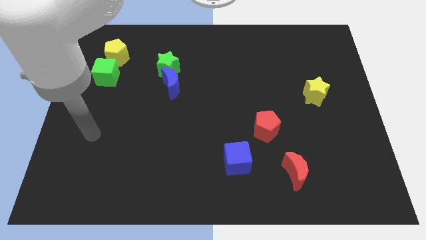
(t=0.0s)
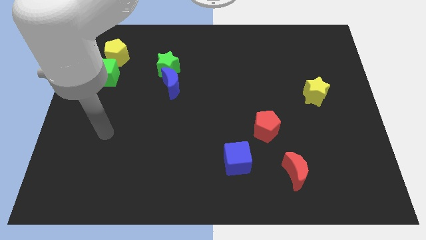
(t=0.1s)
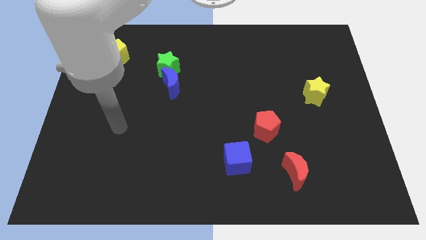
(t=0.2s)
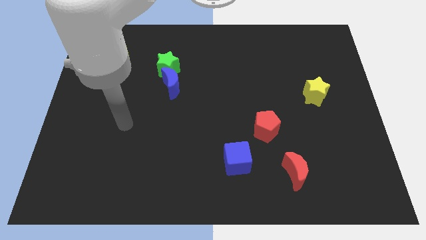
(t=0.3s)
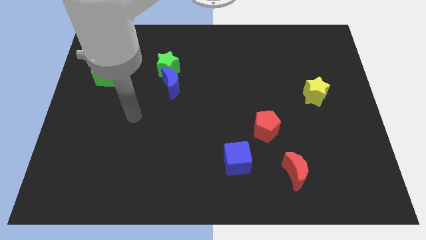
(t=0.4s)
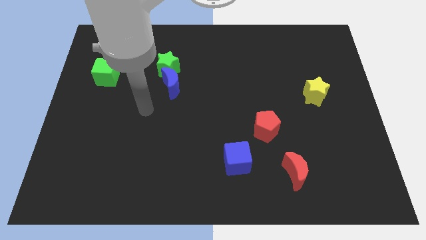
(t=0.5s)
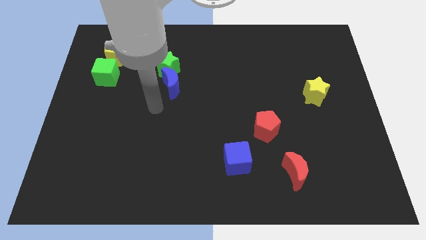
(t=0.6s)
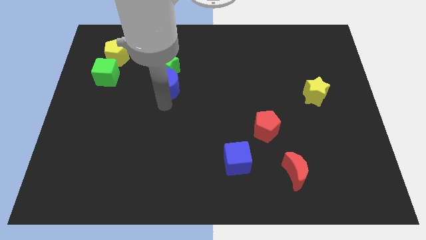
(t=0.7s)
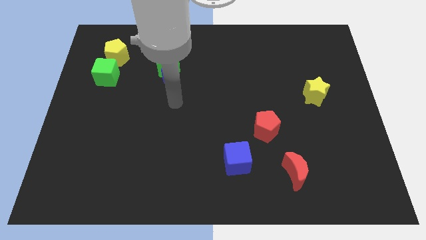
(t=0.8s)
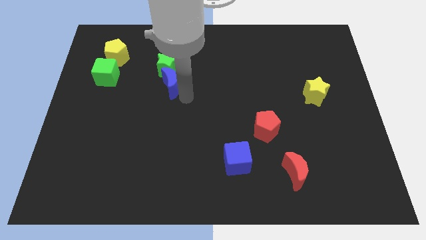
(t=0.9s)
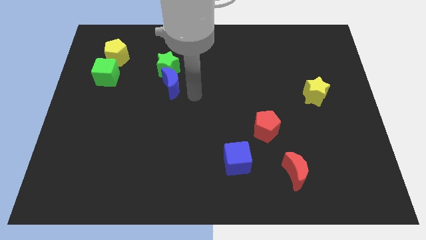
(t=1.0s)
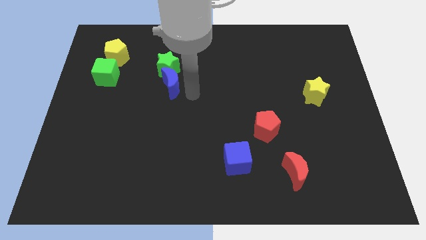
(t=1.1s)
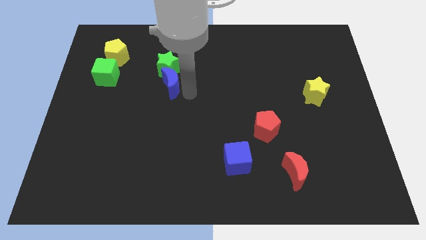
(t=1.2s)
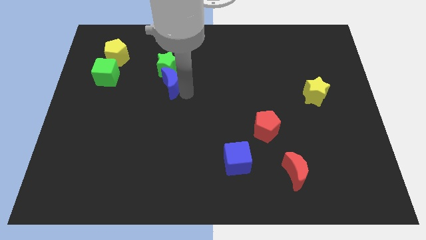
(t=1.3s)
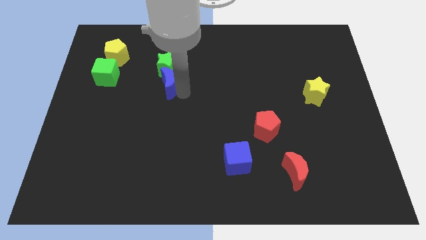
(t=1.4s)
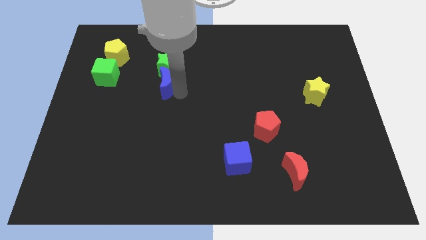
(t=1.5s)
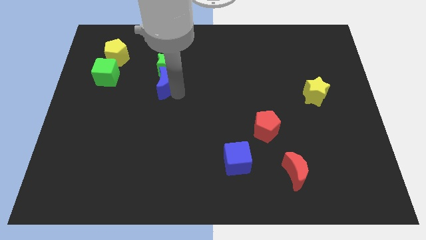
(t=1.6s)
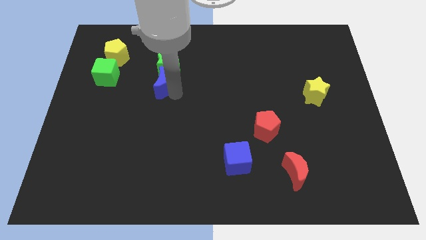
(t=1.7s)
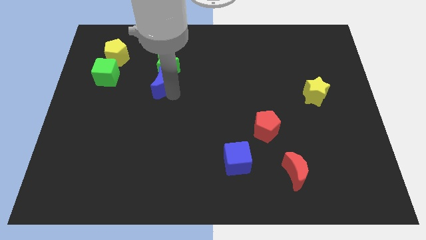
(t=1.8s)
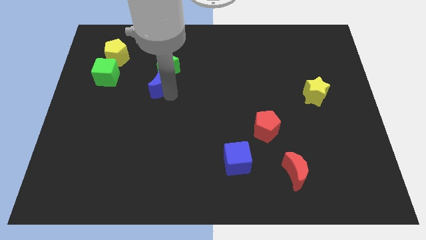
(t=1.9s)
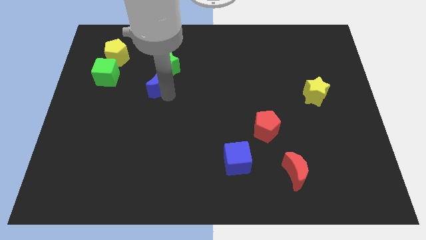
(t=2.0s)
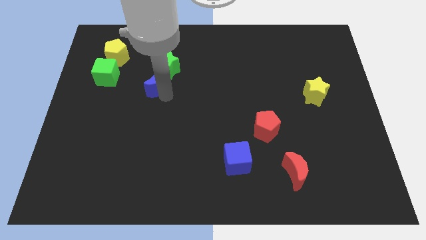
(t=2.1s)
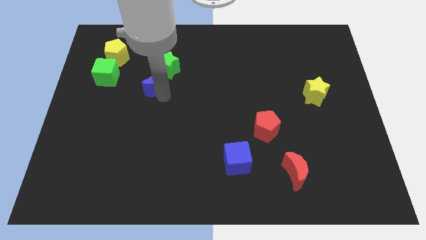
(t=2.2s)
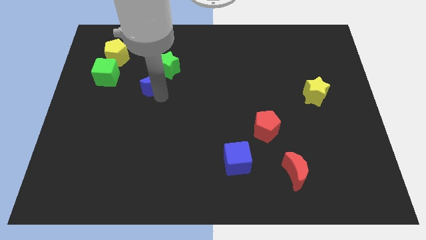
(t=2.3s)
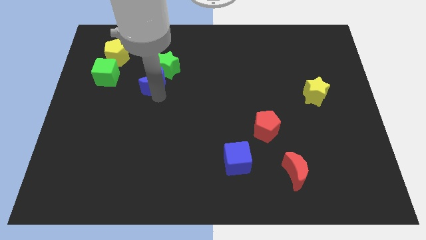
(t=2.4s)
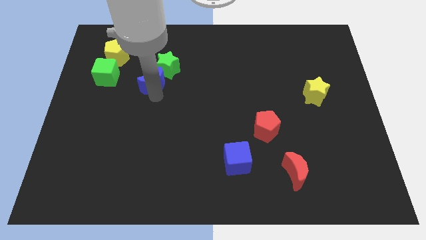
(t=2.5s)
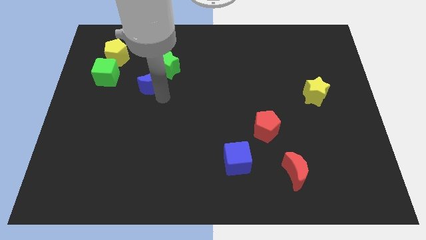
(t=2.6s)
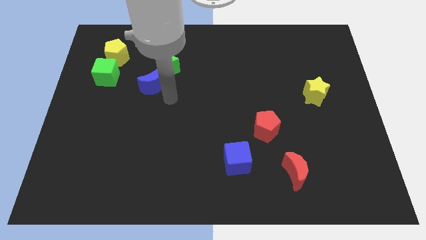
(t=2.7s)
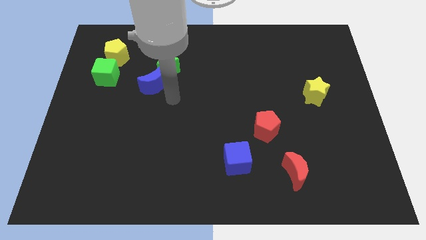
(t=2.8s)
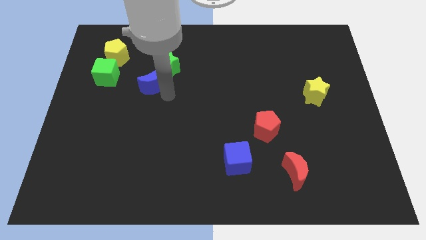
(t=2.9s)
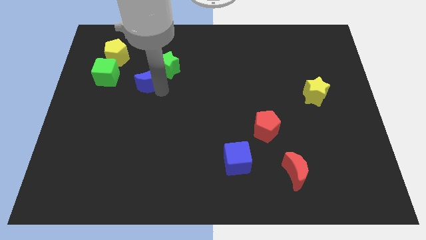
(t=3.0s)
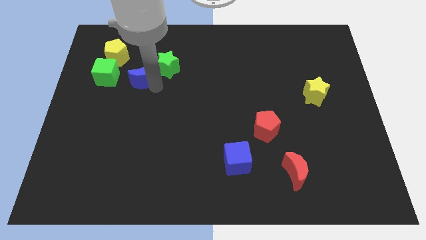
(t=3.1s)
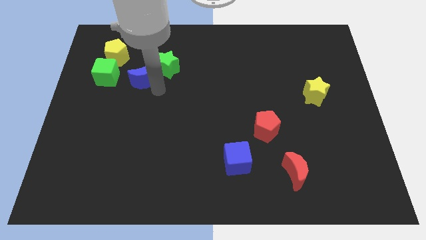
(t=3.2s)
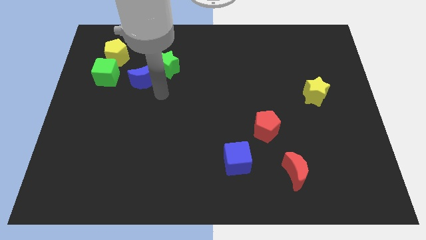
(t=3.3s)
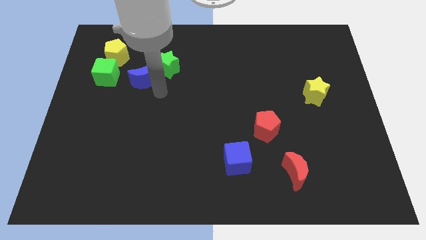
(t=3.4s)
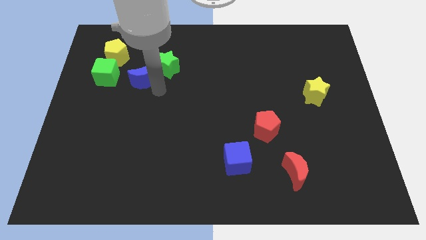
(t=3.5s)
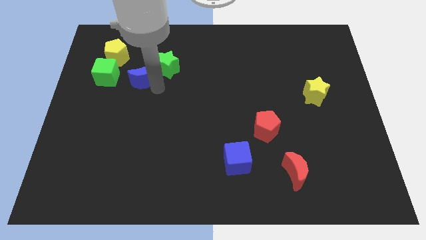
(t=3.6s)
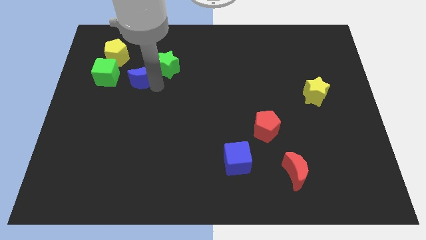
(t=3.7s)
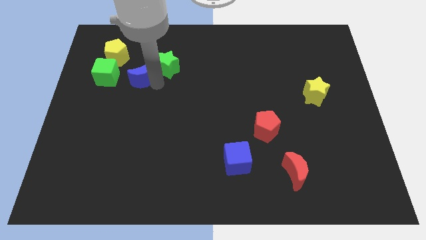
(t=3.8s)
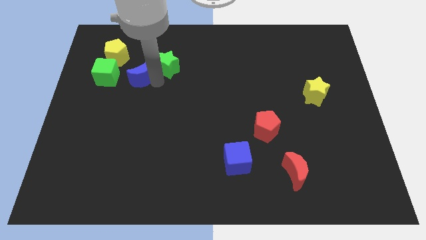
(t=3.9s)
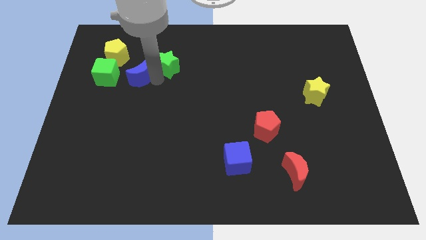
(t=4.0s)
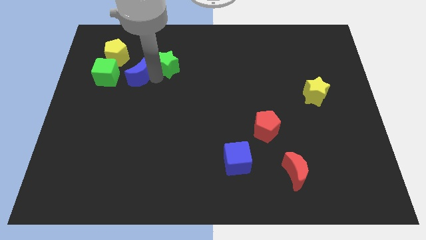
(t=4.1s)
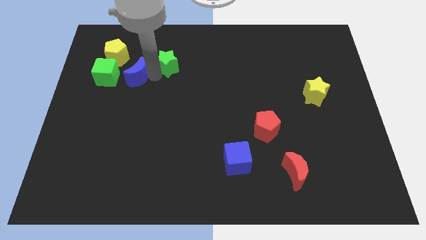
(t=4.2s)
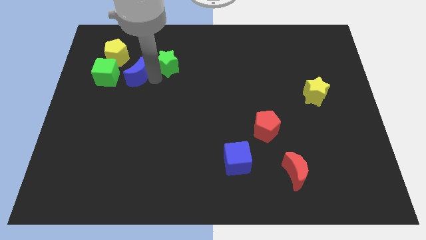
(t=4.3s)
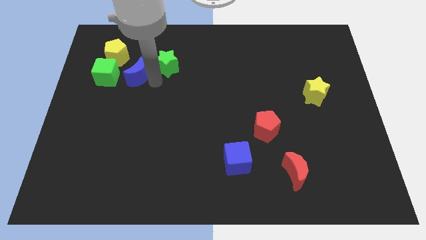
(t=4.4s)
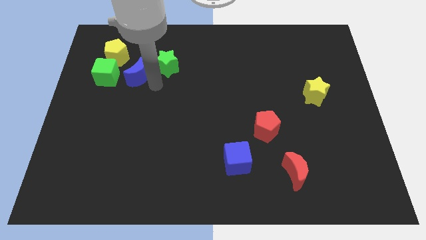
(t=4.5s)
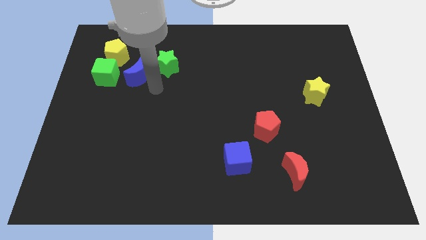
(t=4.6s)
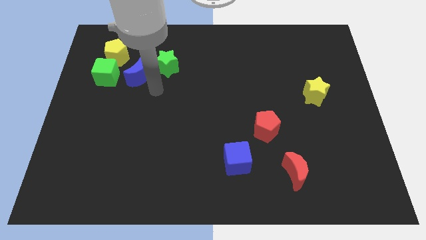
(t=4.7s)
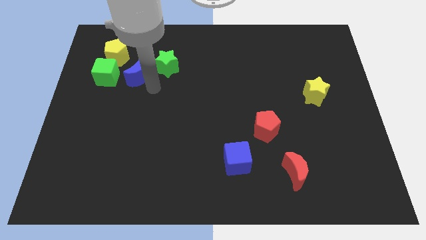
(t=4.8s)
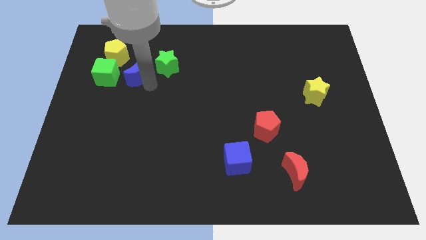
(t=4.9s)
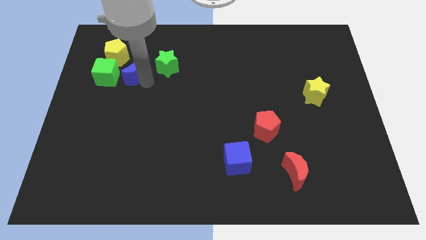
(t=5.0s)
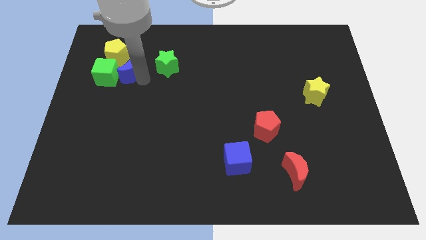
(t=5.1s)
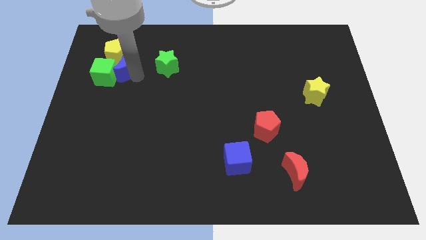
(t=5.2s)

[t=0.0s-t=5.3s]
move the blue moon next to the yellow pentagon

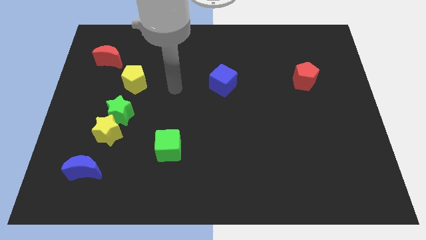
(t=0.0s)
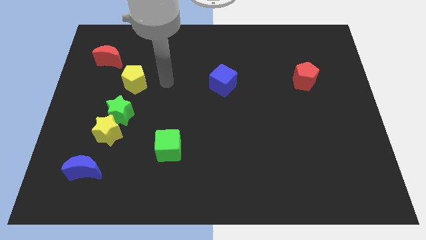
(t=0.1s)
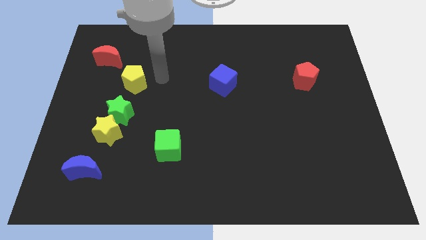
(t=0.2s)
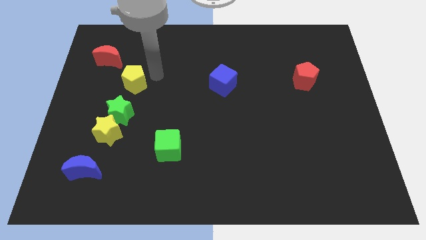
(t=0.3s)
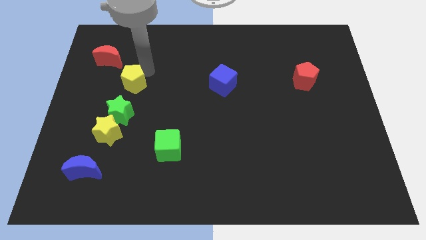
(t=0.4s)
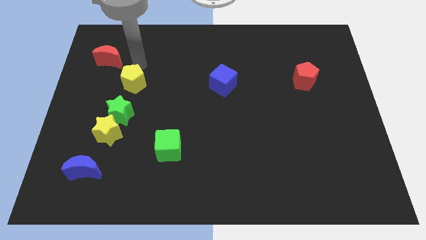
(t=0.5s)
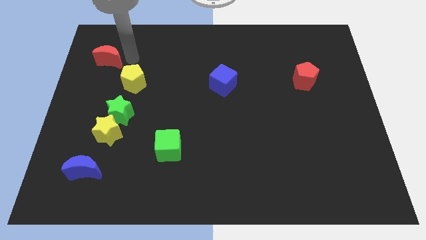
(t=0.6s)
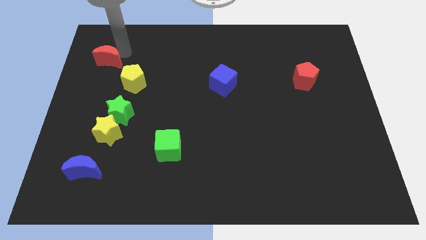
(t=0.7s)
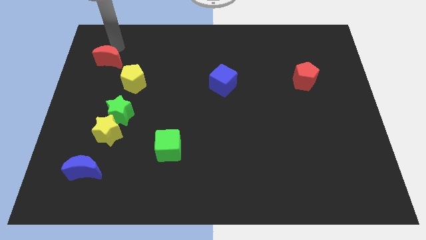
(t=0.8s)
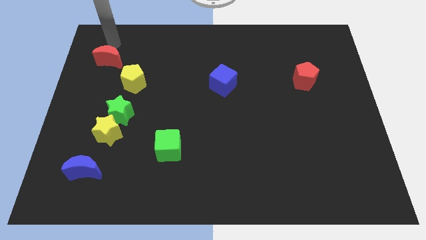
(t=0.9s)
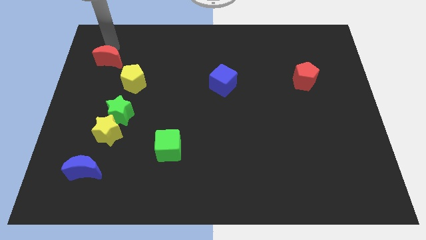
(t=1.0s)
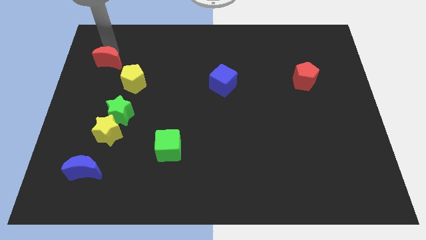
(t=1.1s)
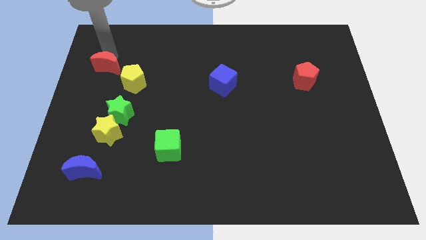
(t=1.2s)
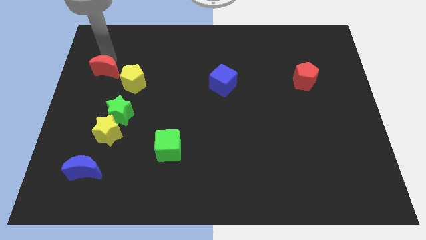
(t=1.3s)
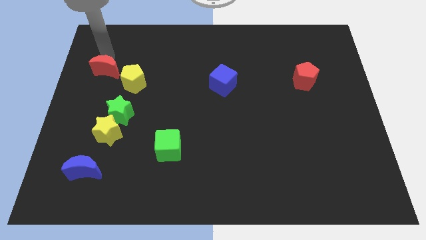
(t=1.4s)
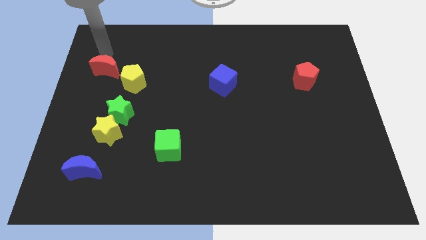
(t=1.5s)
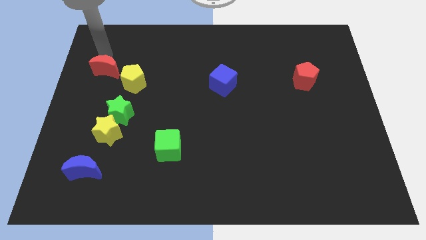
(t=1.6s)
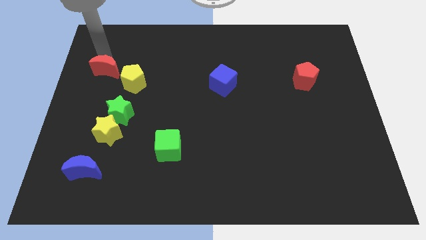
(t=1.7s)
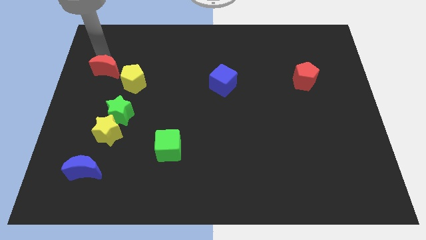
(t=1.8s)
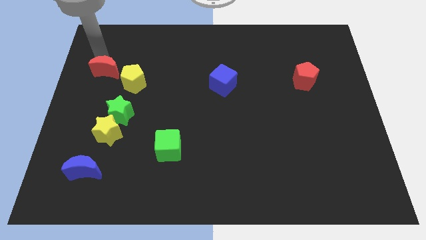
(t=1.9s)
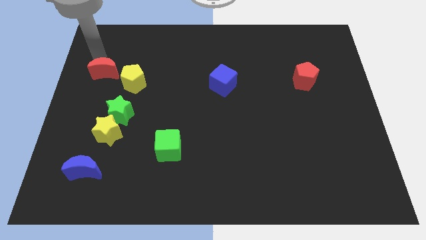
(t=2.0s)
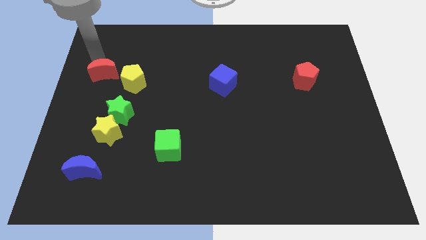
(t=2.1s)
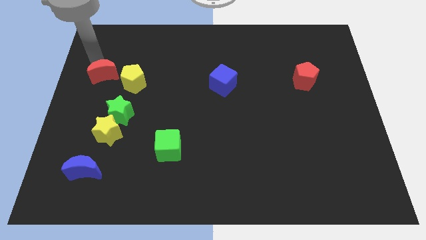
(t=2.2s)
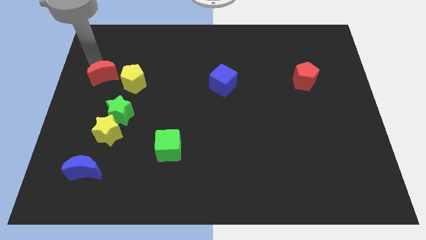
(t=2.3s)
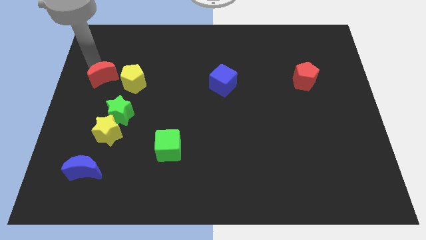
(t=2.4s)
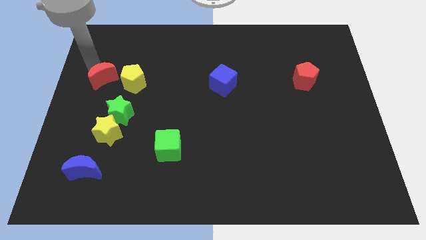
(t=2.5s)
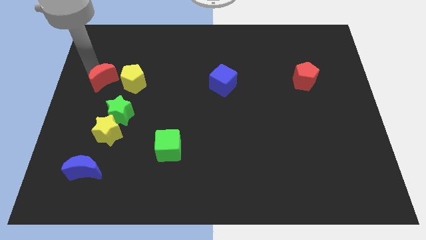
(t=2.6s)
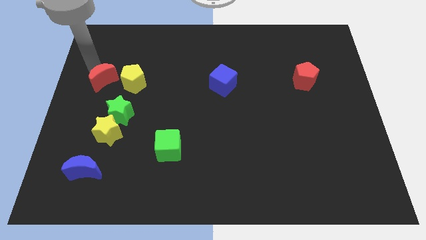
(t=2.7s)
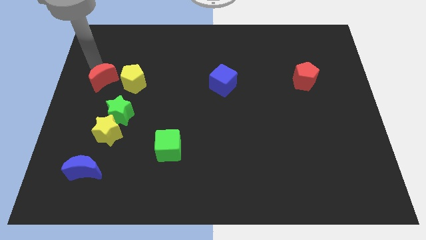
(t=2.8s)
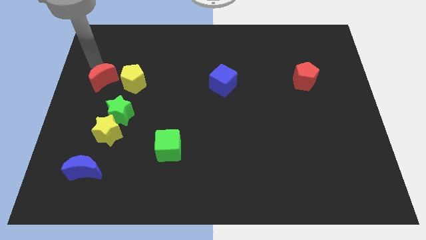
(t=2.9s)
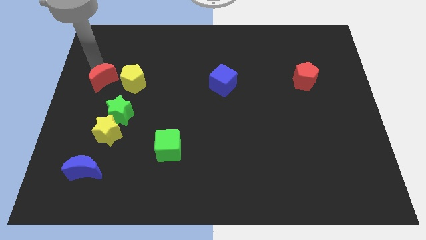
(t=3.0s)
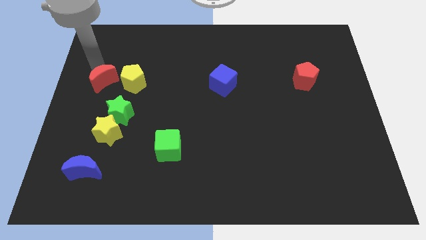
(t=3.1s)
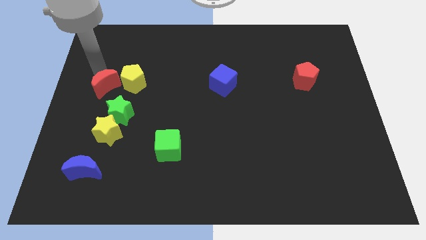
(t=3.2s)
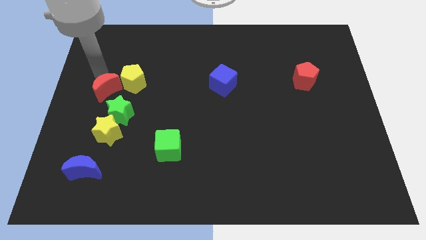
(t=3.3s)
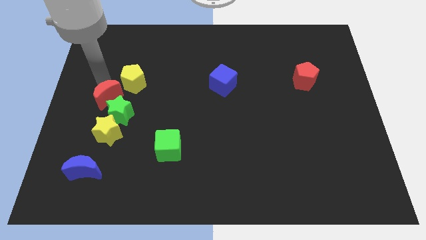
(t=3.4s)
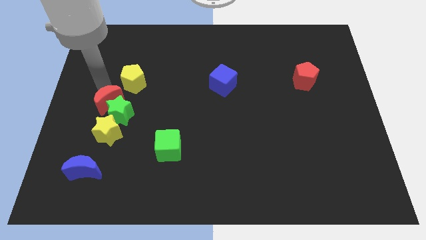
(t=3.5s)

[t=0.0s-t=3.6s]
put the red moon to the green star
